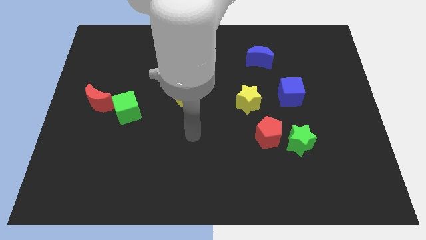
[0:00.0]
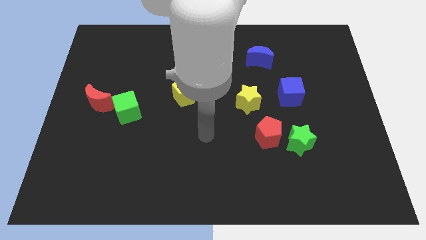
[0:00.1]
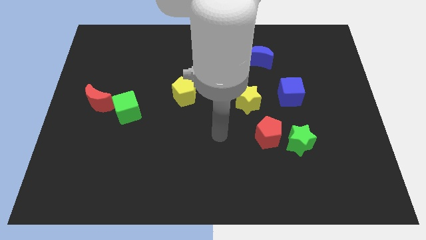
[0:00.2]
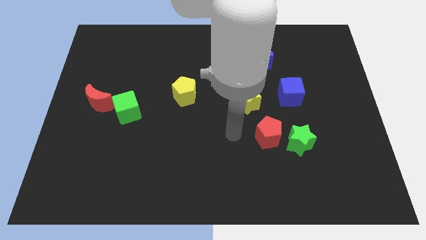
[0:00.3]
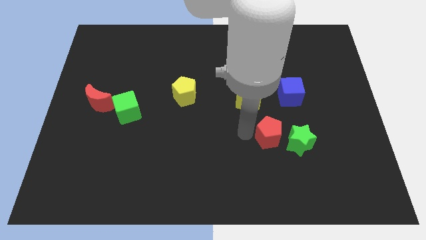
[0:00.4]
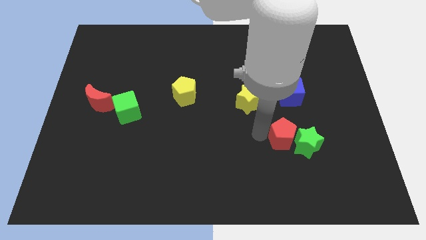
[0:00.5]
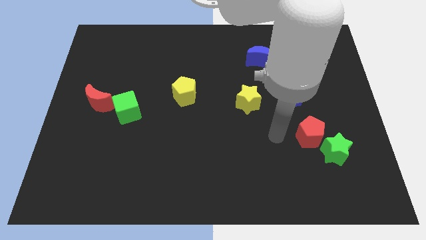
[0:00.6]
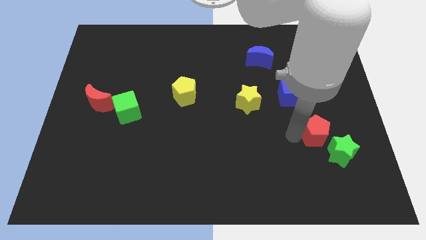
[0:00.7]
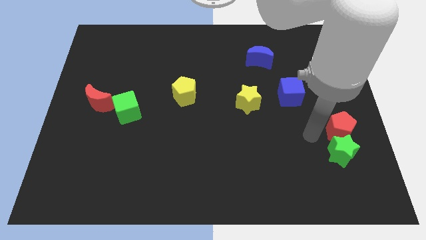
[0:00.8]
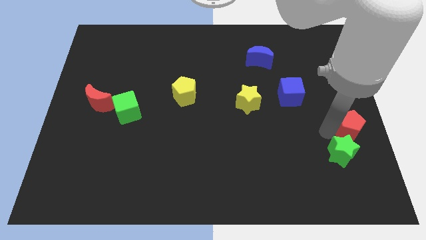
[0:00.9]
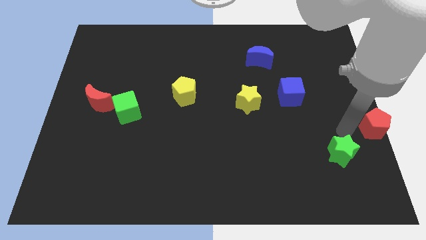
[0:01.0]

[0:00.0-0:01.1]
move the green star away from the red pentagon

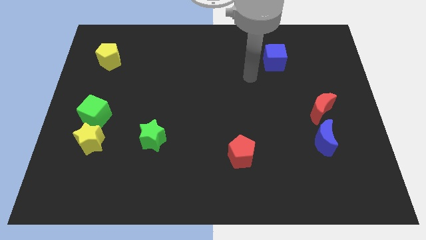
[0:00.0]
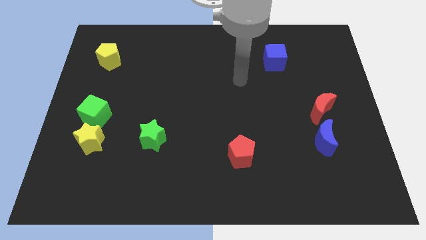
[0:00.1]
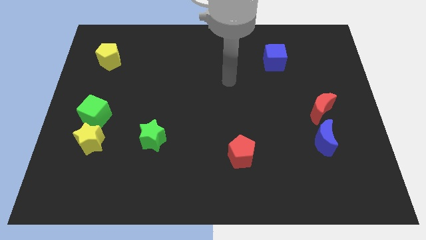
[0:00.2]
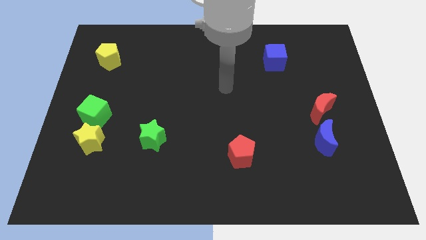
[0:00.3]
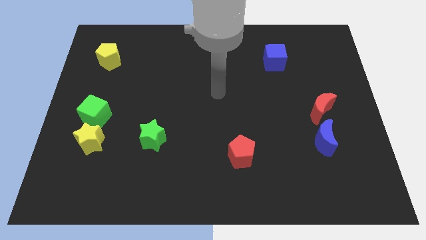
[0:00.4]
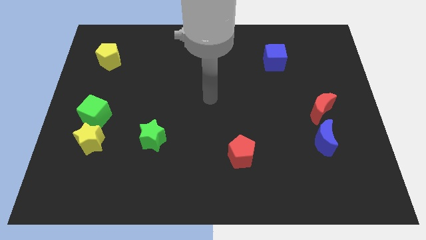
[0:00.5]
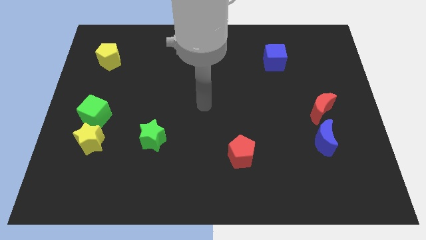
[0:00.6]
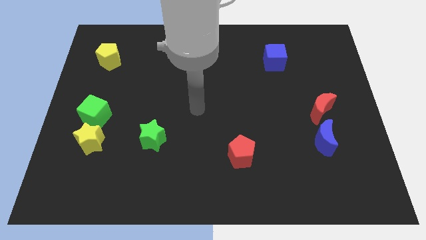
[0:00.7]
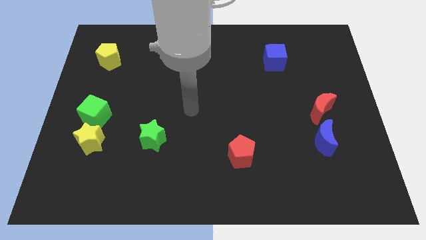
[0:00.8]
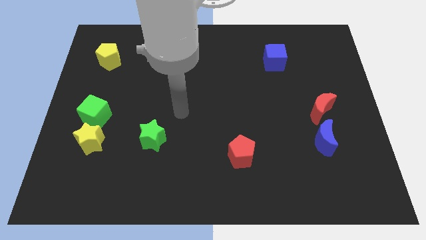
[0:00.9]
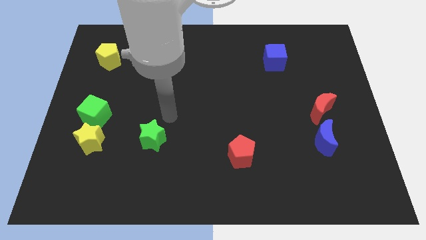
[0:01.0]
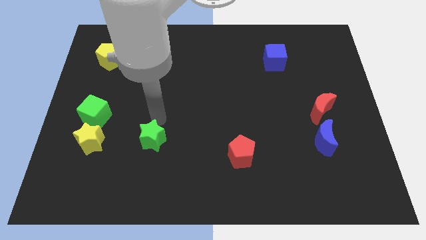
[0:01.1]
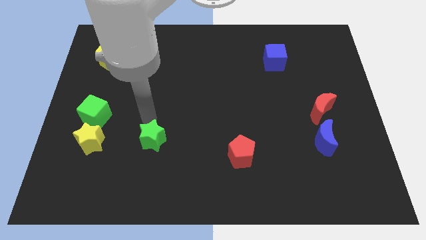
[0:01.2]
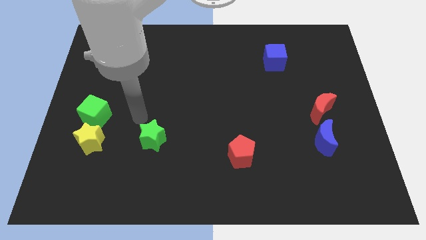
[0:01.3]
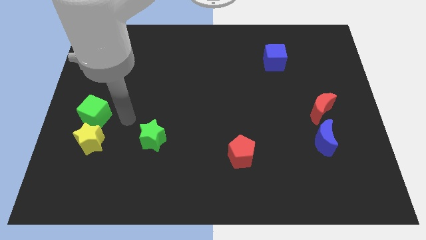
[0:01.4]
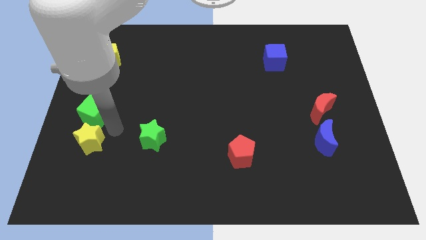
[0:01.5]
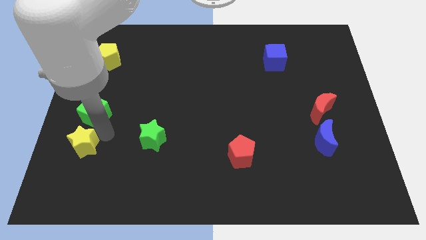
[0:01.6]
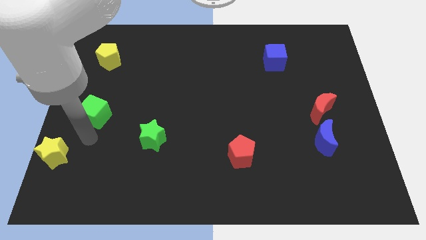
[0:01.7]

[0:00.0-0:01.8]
separate the green cube from the yellow star

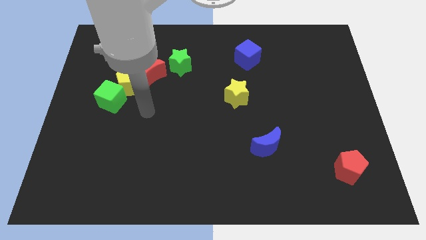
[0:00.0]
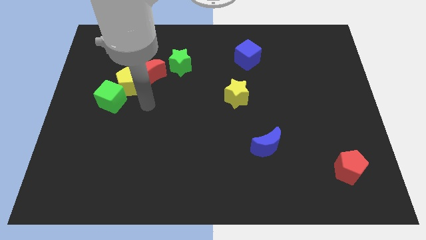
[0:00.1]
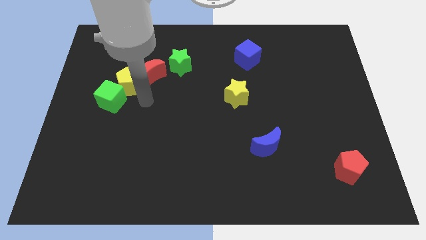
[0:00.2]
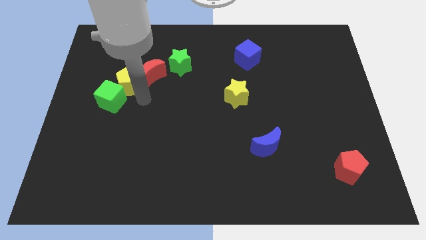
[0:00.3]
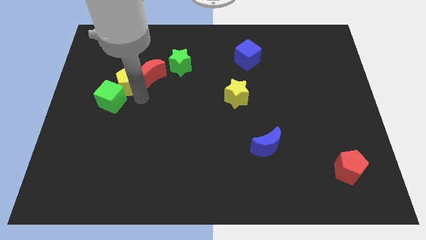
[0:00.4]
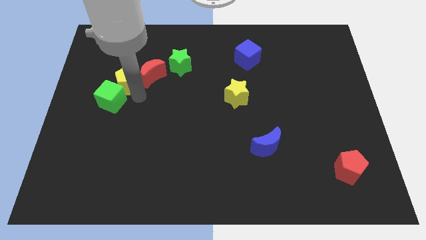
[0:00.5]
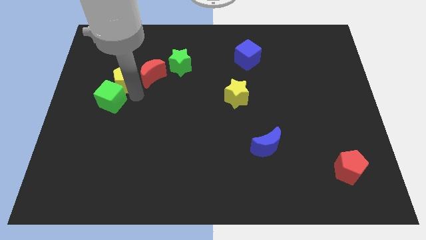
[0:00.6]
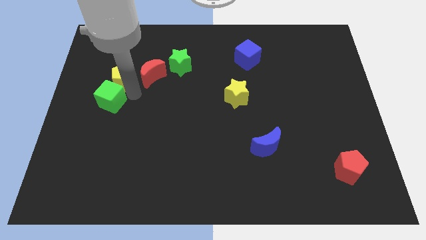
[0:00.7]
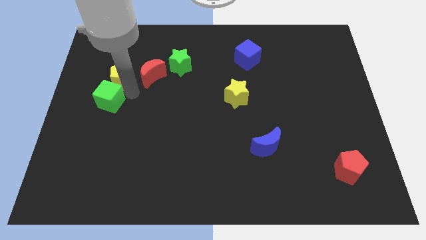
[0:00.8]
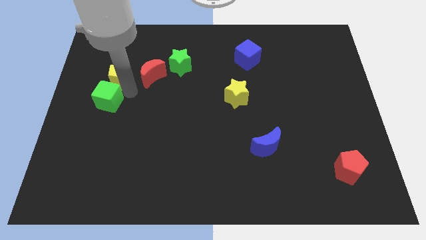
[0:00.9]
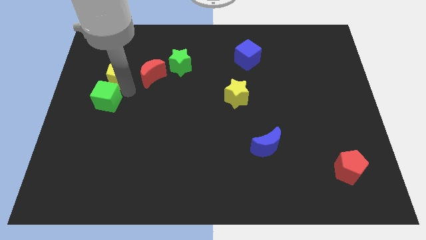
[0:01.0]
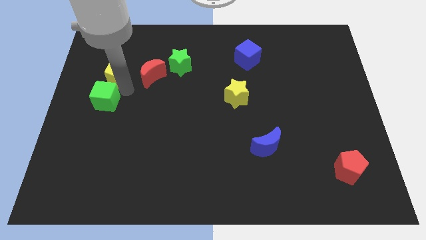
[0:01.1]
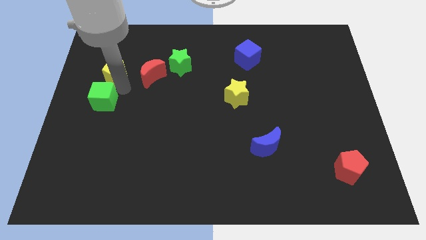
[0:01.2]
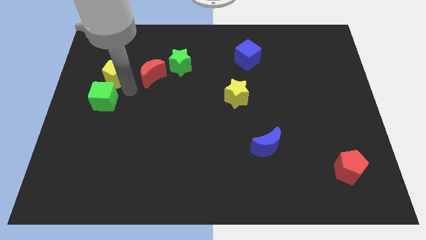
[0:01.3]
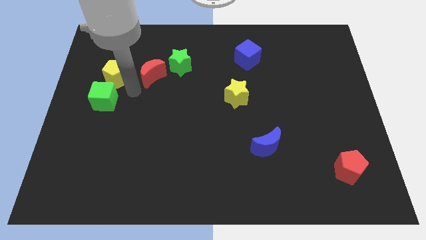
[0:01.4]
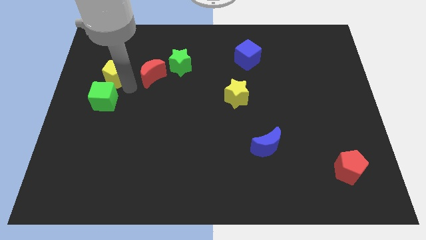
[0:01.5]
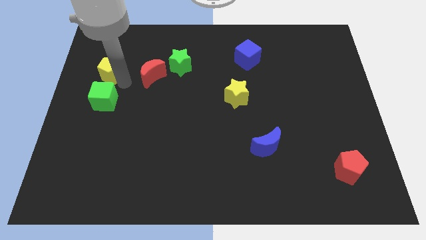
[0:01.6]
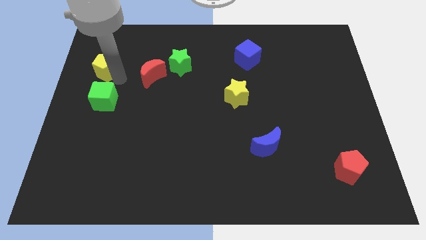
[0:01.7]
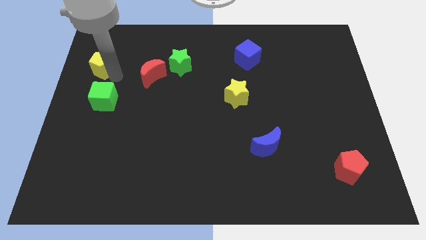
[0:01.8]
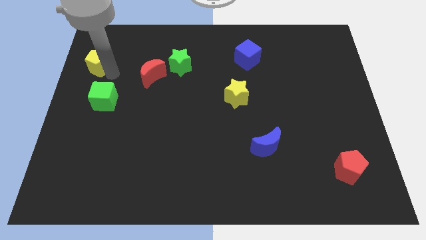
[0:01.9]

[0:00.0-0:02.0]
pull the yellow pentagon apart from the red moon and green cube

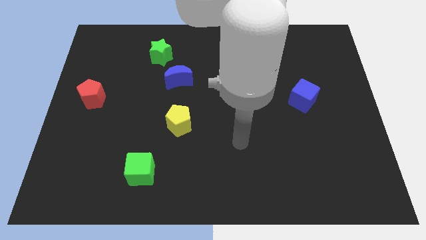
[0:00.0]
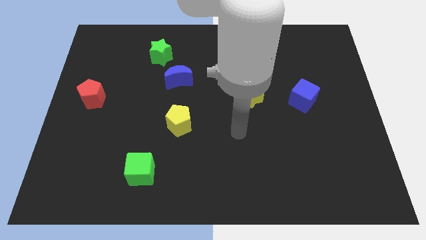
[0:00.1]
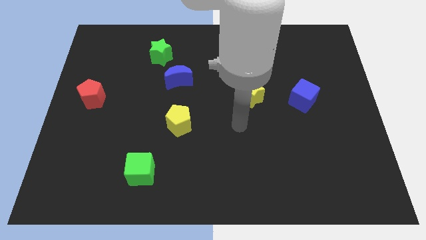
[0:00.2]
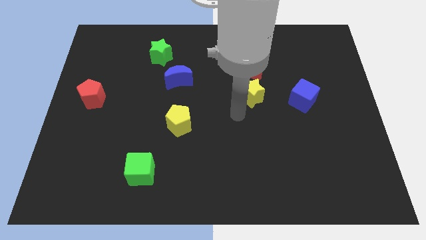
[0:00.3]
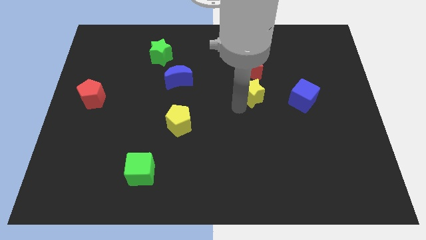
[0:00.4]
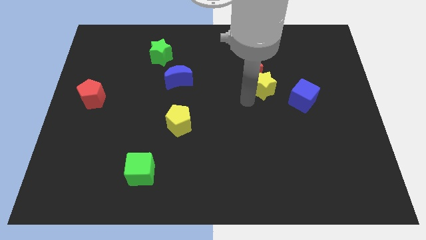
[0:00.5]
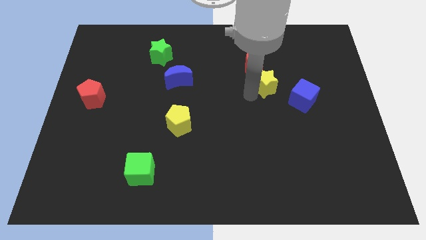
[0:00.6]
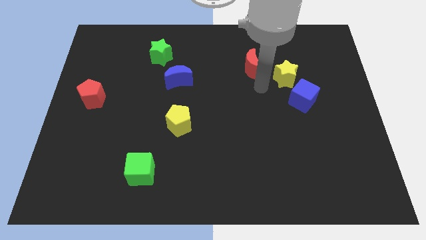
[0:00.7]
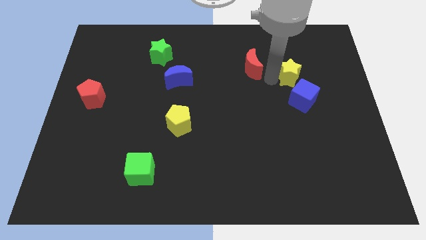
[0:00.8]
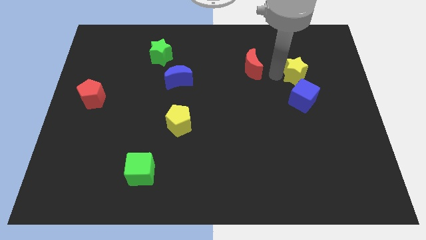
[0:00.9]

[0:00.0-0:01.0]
move the red moon away from the yellow star

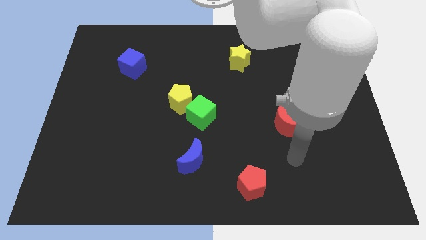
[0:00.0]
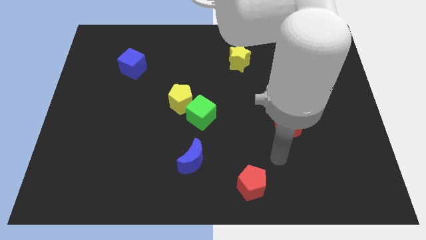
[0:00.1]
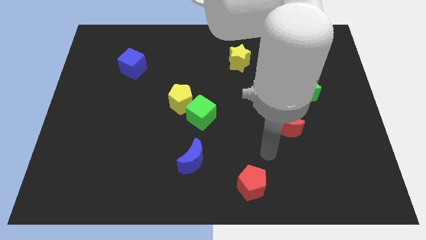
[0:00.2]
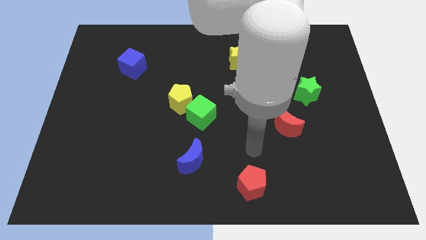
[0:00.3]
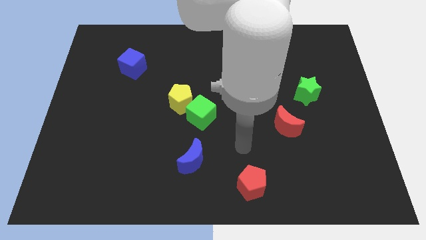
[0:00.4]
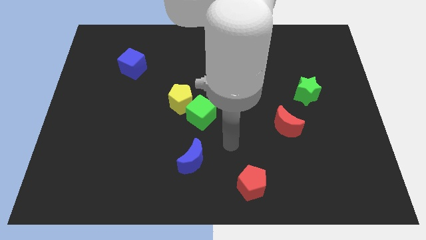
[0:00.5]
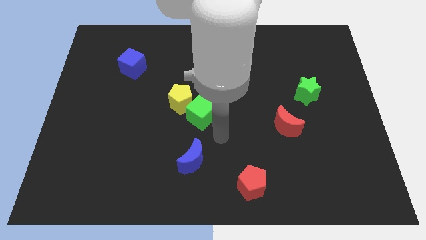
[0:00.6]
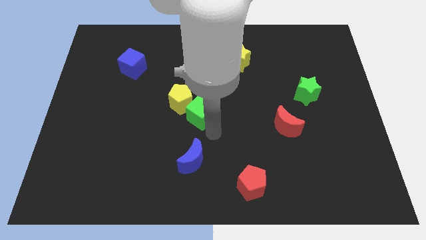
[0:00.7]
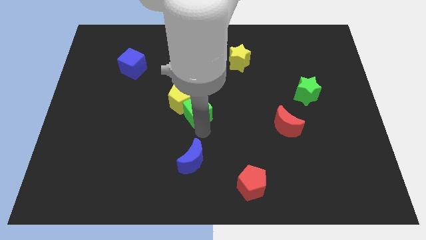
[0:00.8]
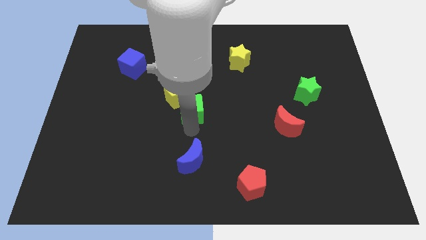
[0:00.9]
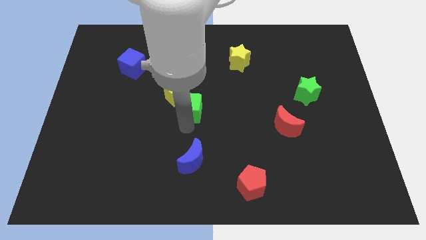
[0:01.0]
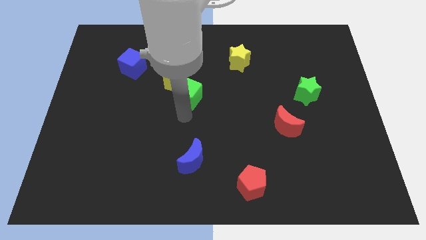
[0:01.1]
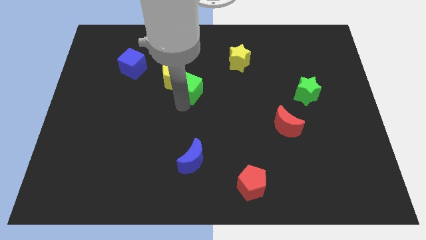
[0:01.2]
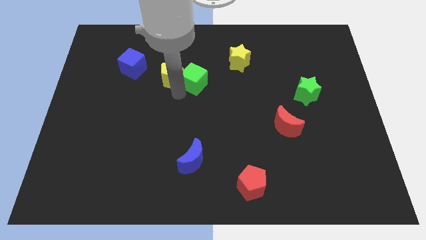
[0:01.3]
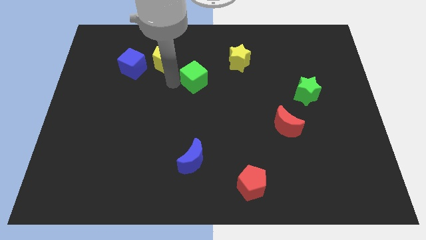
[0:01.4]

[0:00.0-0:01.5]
move the green cube away from the yellow pentagon

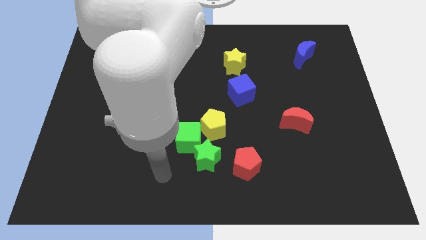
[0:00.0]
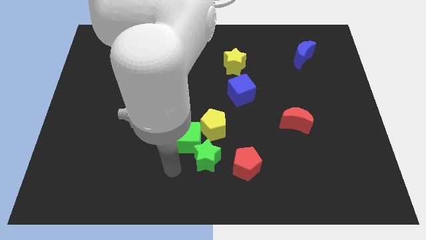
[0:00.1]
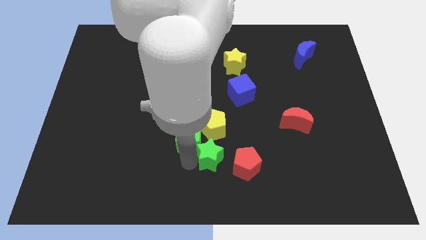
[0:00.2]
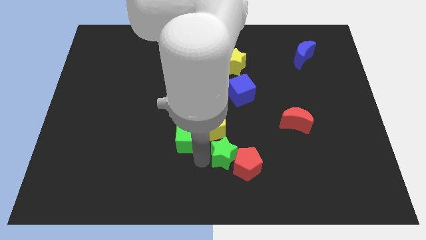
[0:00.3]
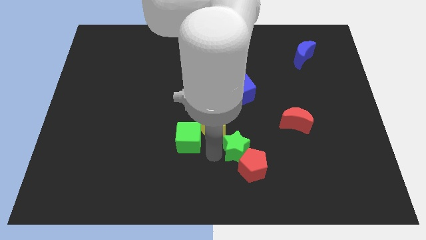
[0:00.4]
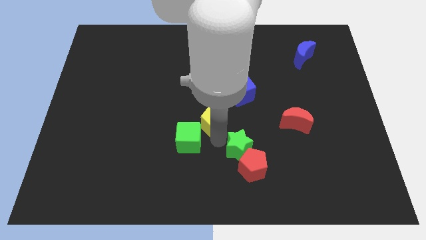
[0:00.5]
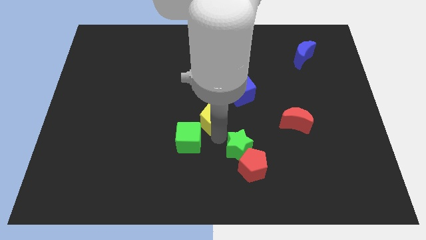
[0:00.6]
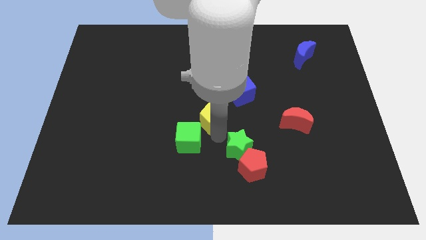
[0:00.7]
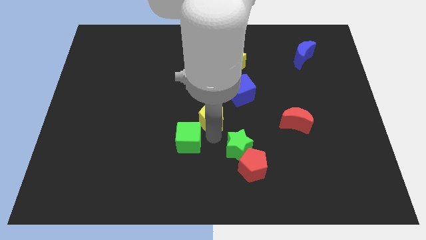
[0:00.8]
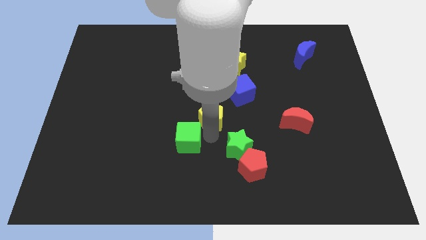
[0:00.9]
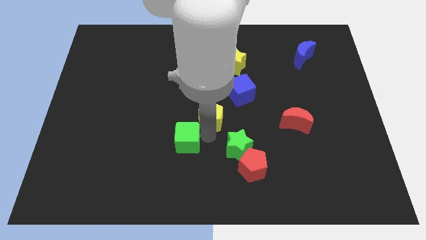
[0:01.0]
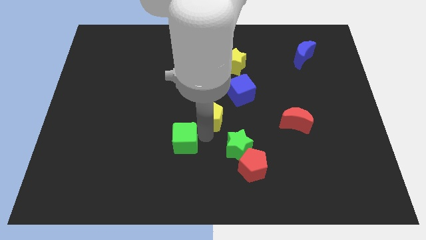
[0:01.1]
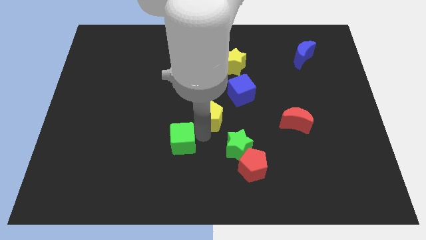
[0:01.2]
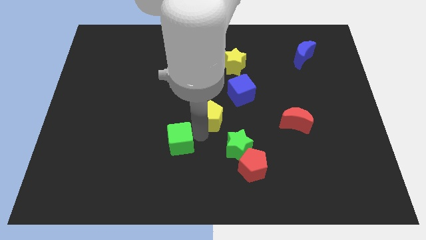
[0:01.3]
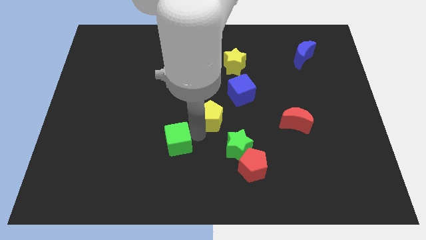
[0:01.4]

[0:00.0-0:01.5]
move the green cube away from the yellow pentagon and green star

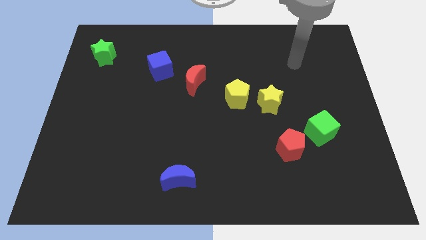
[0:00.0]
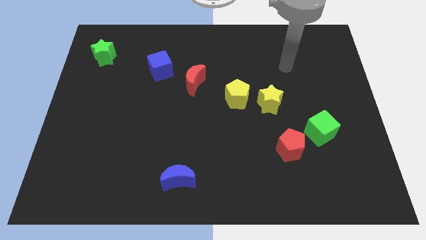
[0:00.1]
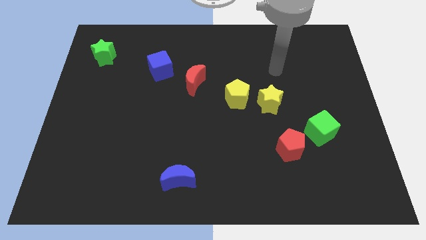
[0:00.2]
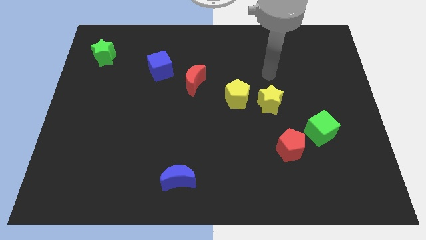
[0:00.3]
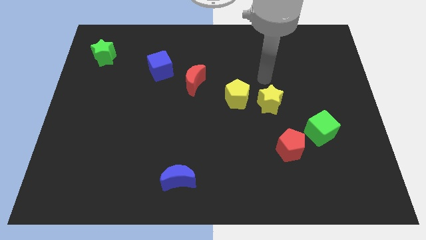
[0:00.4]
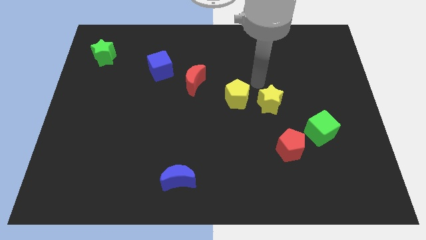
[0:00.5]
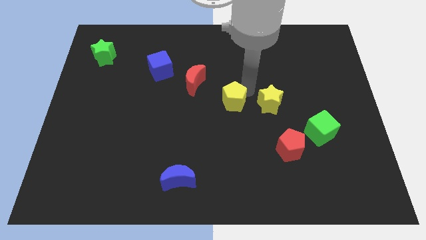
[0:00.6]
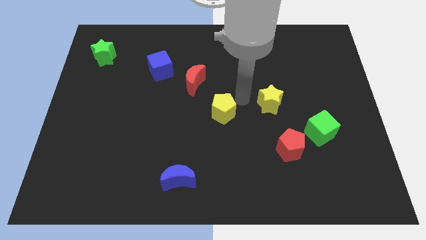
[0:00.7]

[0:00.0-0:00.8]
pull the yellow star apart from the yellow pentagon
